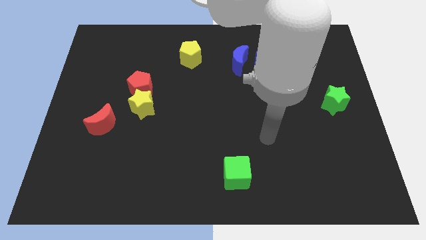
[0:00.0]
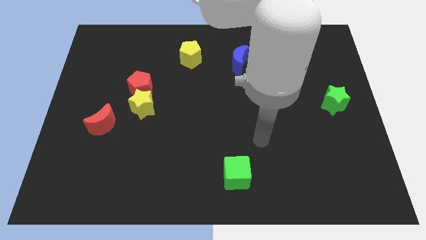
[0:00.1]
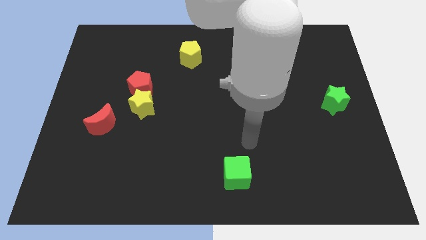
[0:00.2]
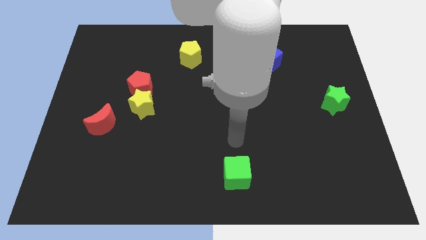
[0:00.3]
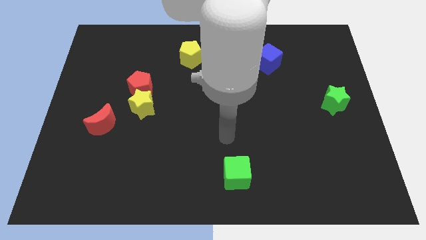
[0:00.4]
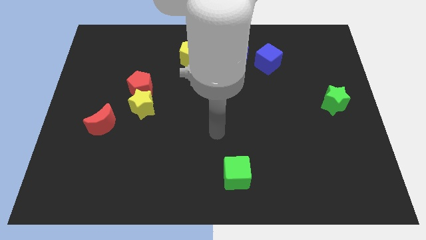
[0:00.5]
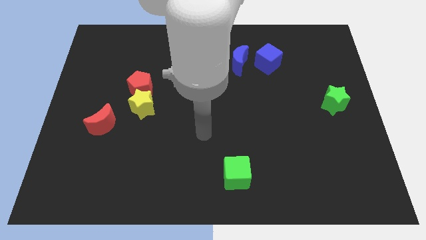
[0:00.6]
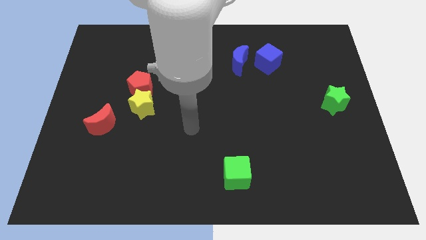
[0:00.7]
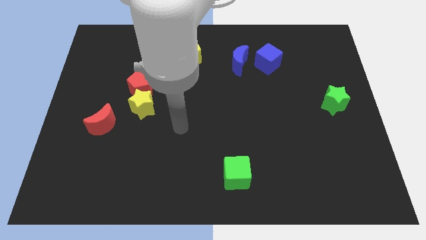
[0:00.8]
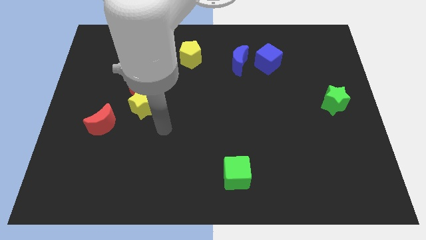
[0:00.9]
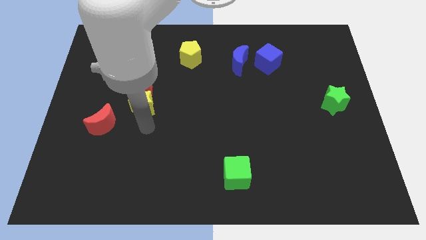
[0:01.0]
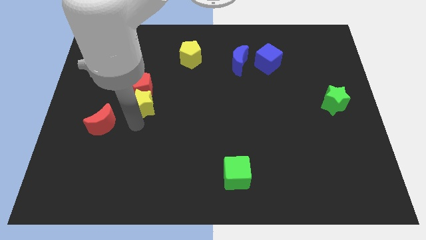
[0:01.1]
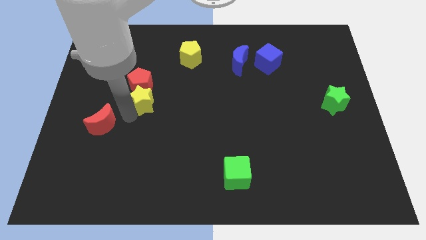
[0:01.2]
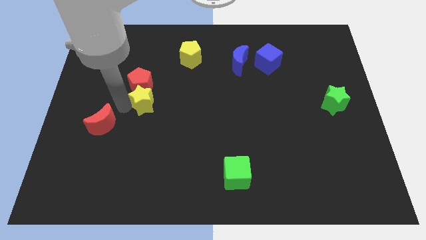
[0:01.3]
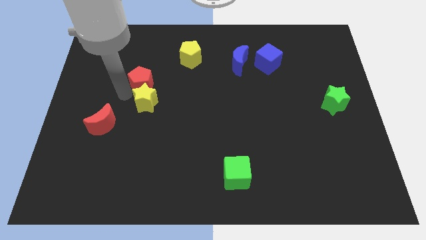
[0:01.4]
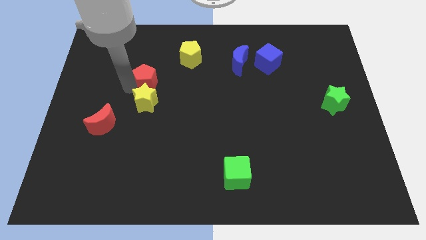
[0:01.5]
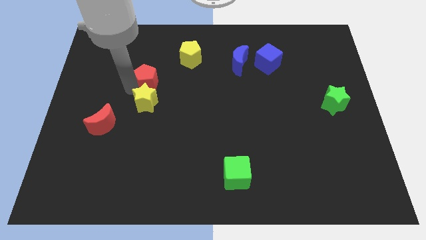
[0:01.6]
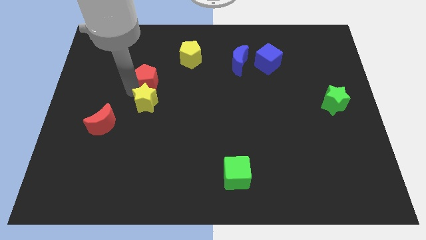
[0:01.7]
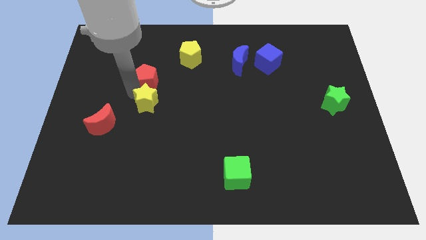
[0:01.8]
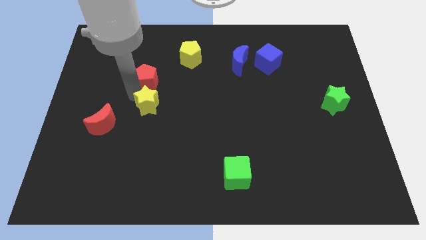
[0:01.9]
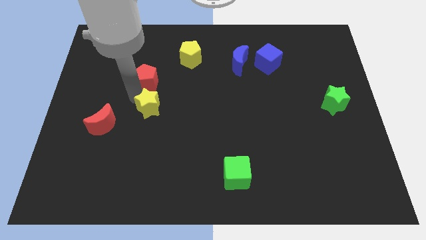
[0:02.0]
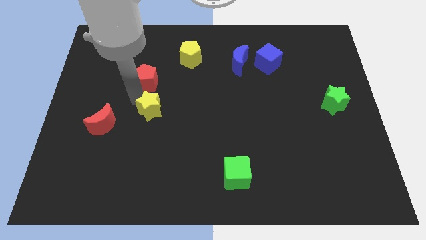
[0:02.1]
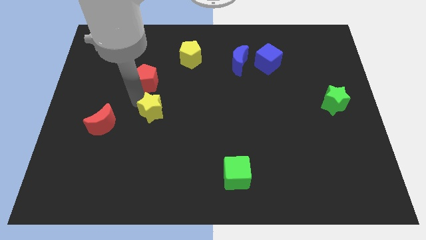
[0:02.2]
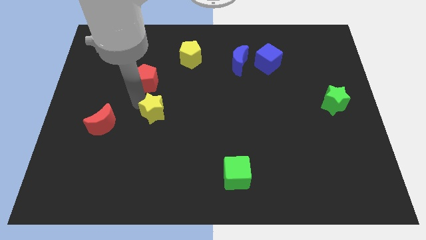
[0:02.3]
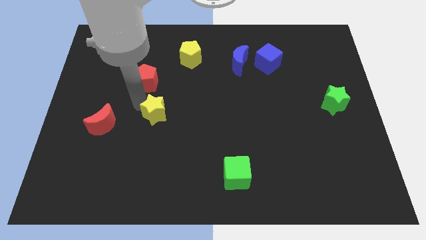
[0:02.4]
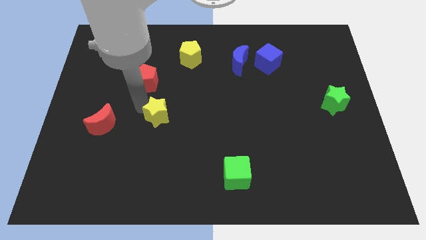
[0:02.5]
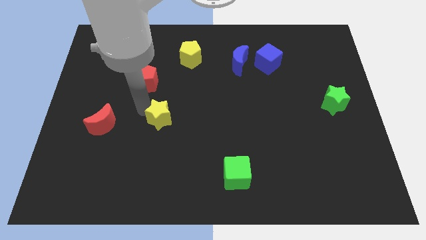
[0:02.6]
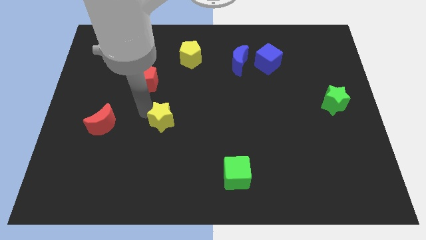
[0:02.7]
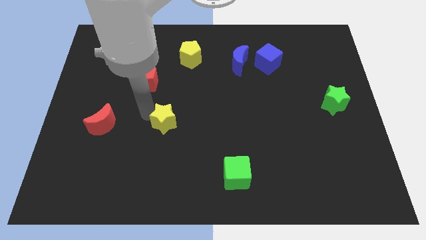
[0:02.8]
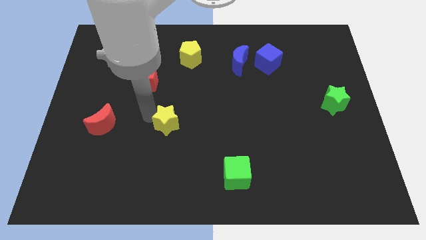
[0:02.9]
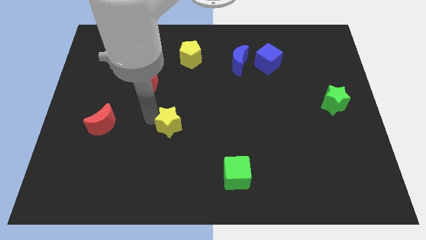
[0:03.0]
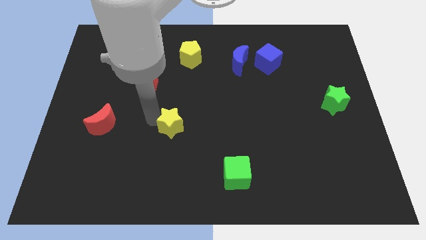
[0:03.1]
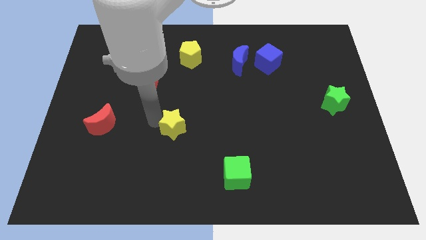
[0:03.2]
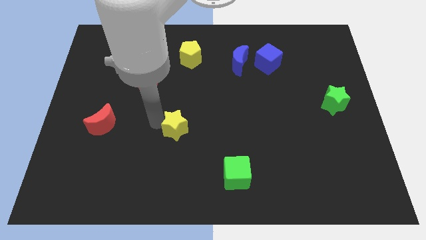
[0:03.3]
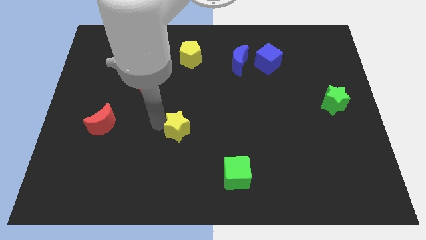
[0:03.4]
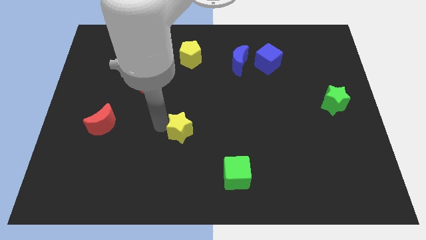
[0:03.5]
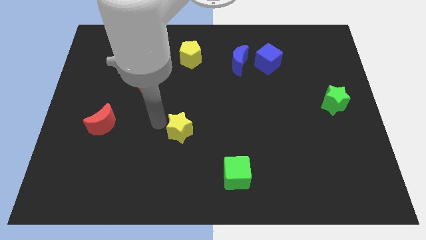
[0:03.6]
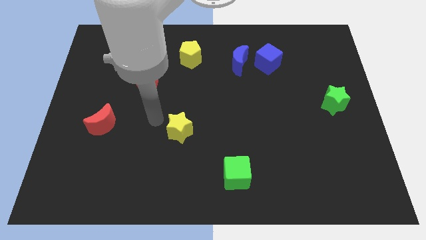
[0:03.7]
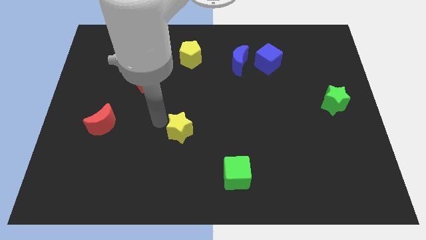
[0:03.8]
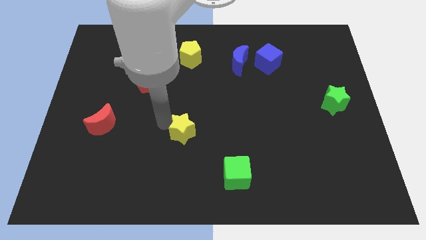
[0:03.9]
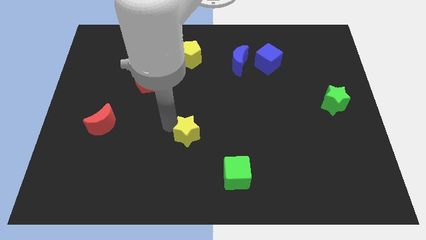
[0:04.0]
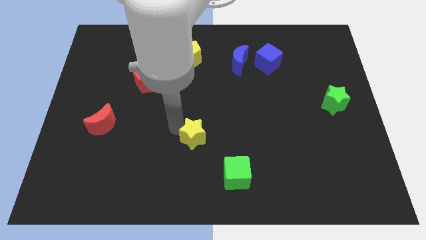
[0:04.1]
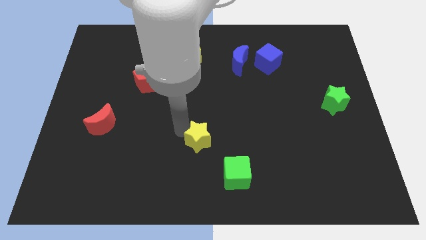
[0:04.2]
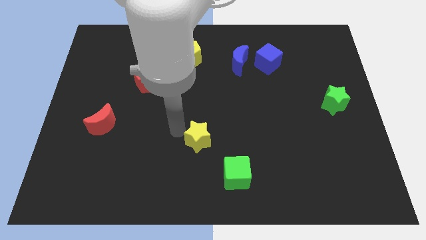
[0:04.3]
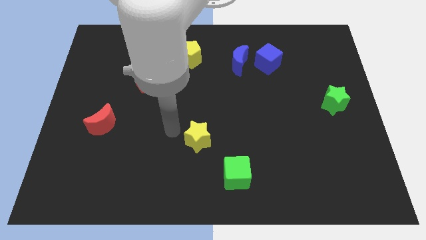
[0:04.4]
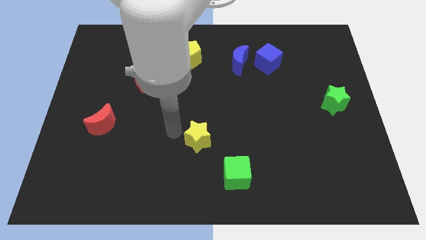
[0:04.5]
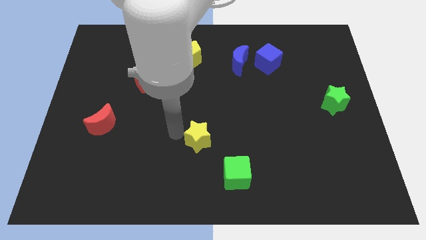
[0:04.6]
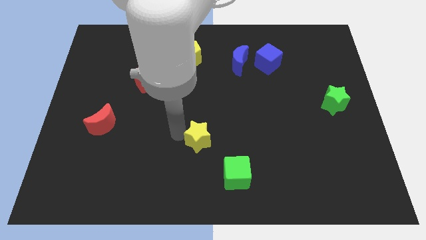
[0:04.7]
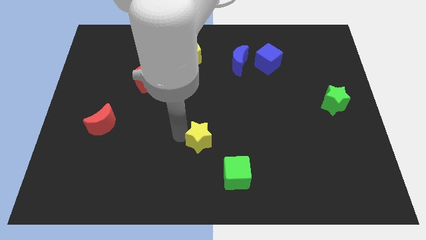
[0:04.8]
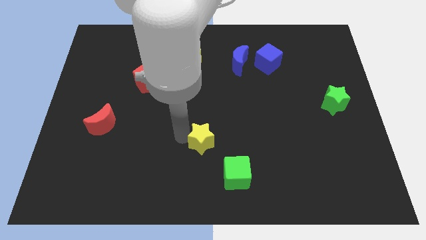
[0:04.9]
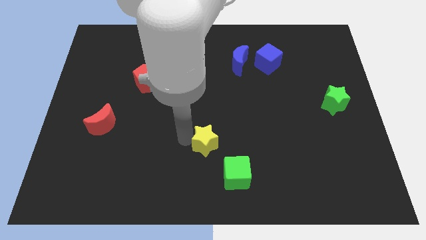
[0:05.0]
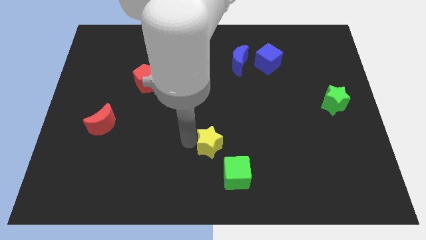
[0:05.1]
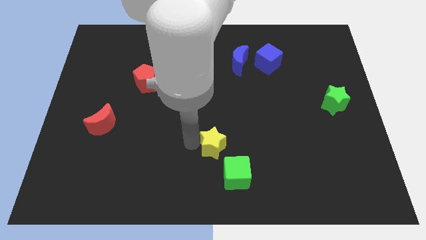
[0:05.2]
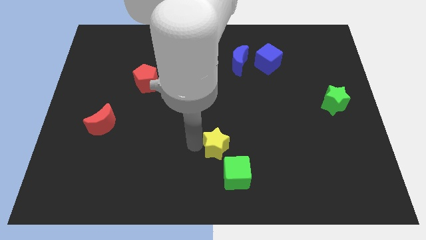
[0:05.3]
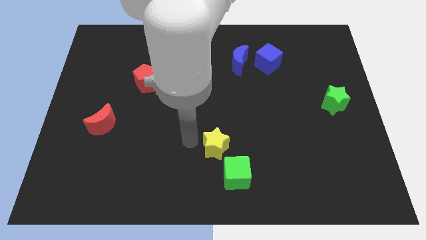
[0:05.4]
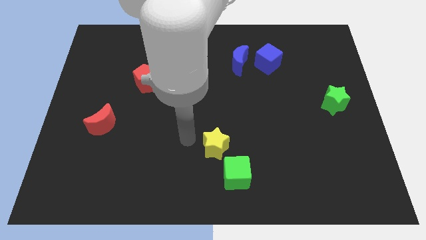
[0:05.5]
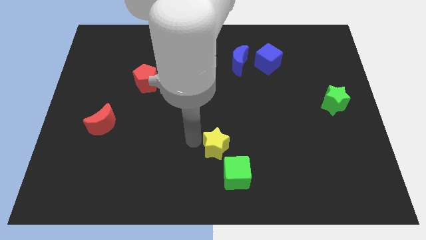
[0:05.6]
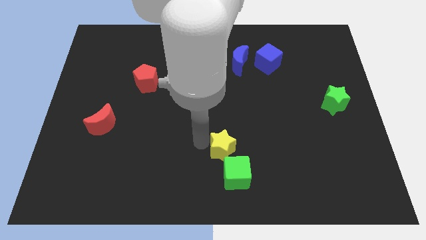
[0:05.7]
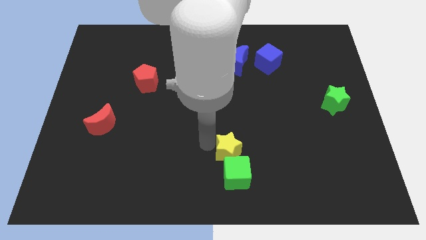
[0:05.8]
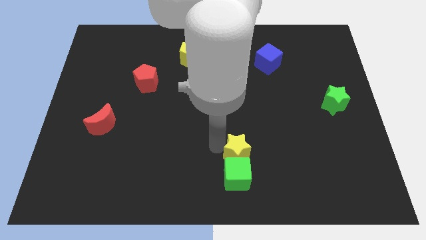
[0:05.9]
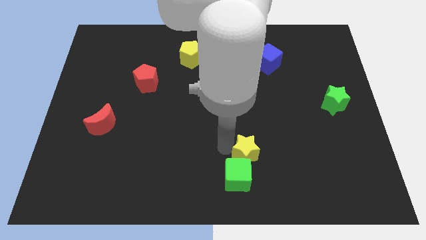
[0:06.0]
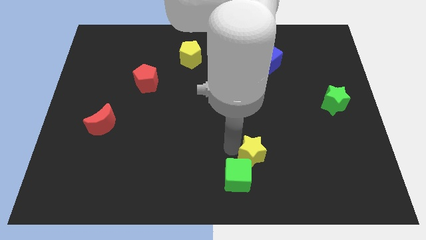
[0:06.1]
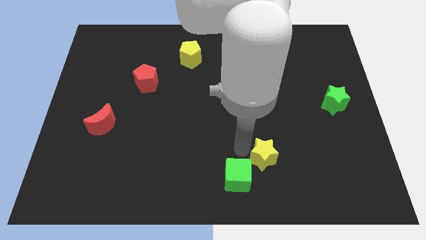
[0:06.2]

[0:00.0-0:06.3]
put the yellow star to the right side of the green cube
